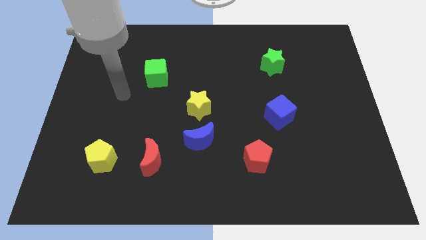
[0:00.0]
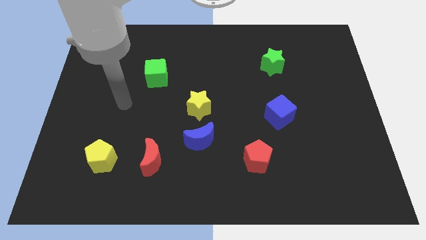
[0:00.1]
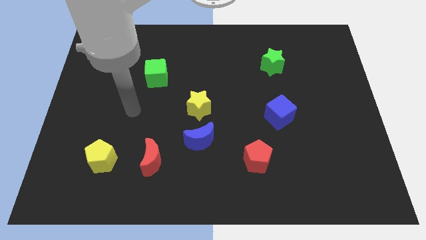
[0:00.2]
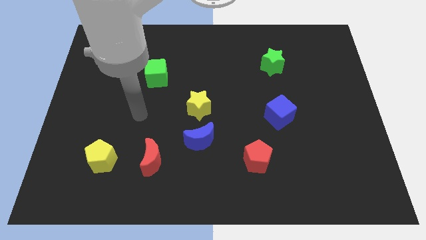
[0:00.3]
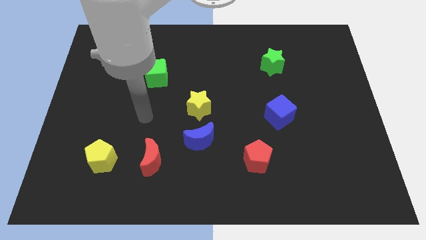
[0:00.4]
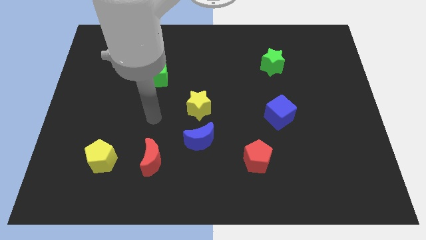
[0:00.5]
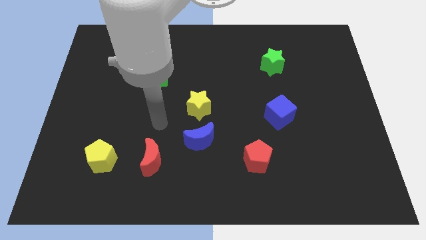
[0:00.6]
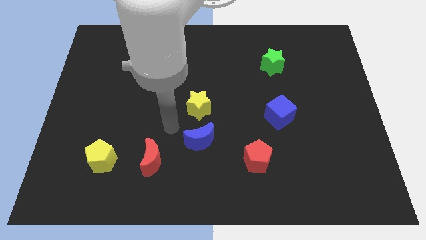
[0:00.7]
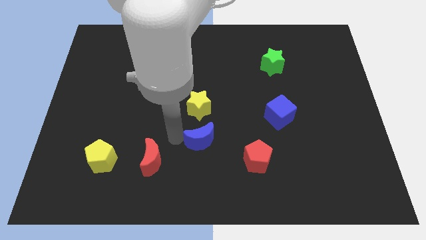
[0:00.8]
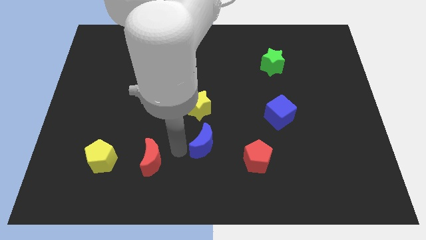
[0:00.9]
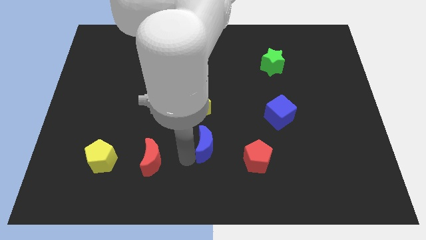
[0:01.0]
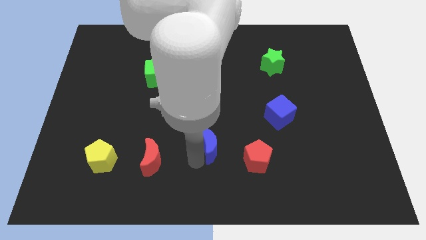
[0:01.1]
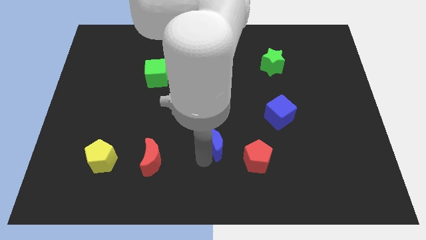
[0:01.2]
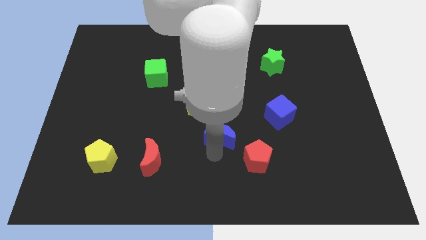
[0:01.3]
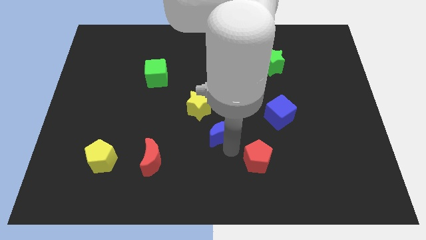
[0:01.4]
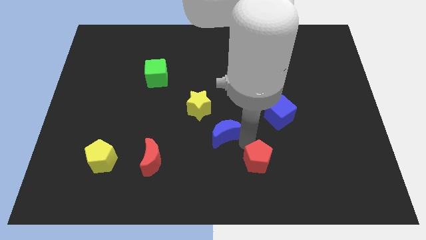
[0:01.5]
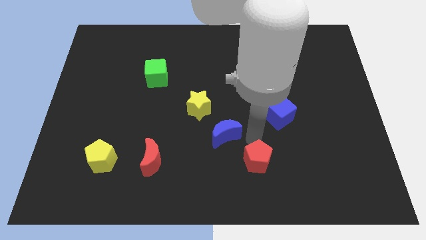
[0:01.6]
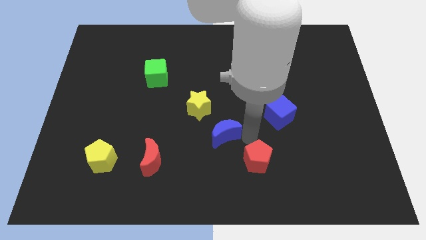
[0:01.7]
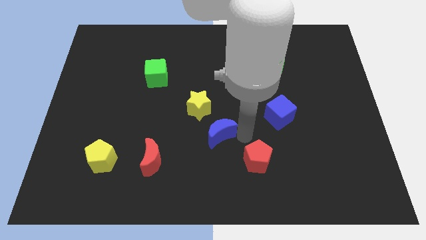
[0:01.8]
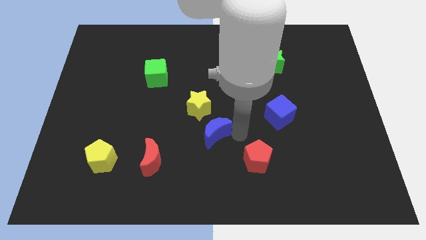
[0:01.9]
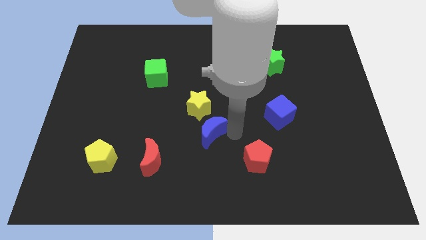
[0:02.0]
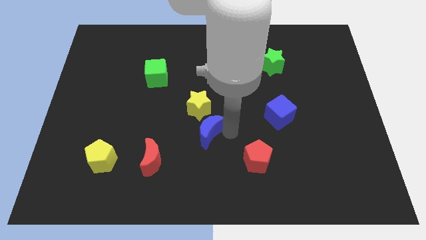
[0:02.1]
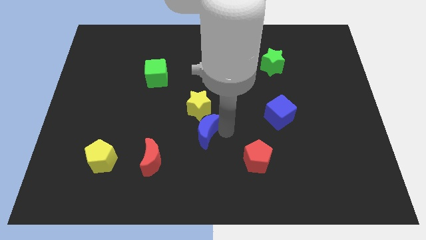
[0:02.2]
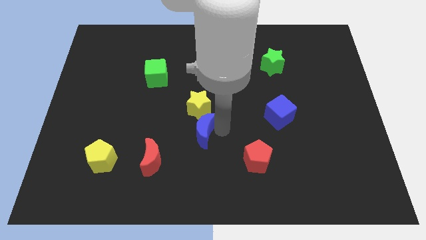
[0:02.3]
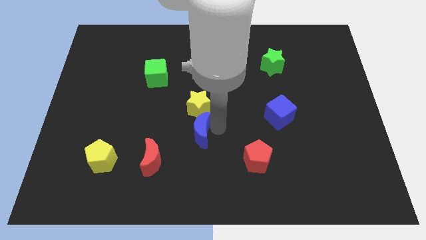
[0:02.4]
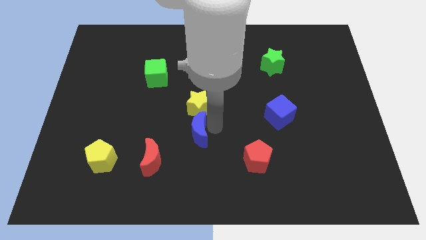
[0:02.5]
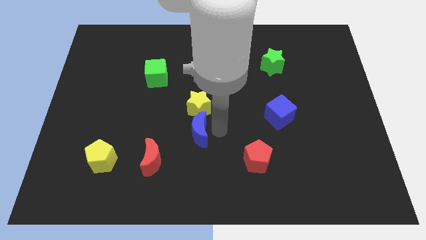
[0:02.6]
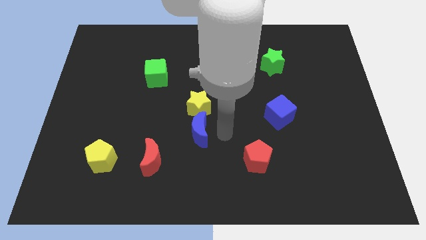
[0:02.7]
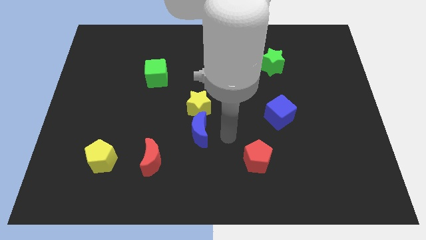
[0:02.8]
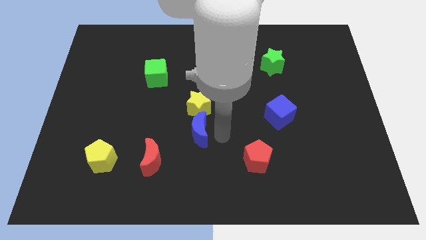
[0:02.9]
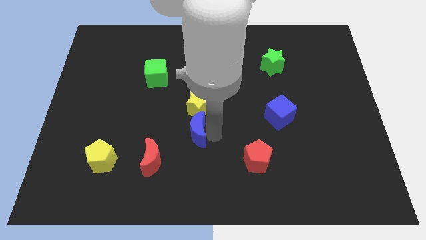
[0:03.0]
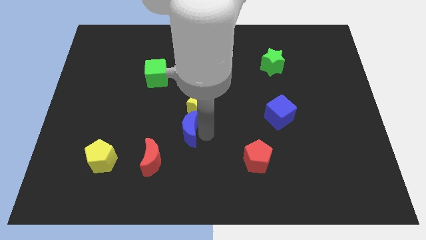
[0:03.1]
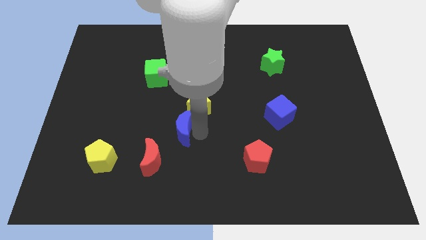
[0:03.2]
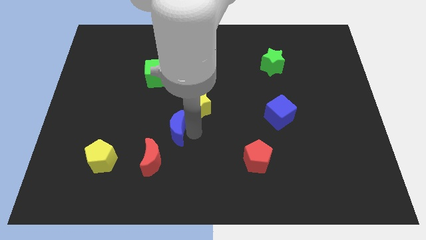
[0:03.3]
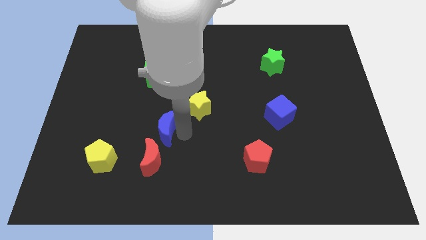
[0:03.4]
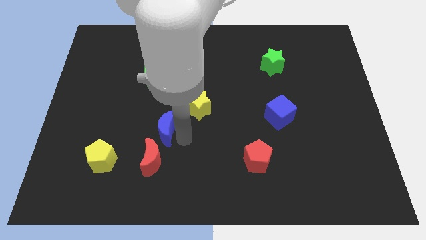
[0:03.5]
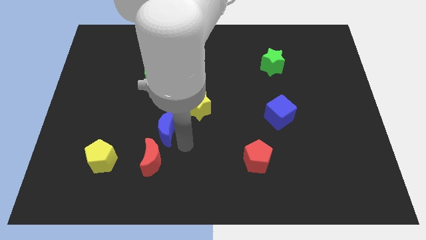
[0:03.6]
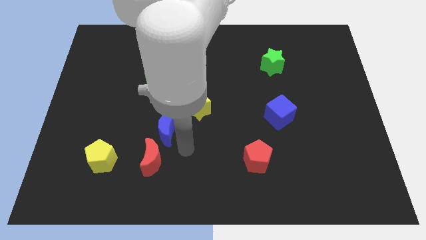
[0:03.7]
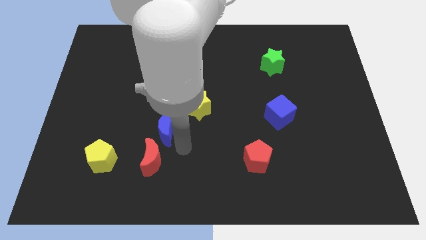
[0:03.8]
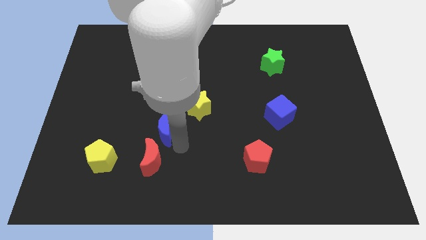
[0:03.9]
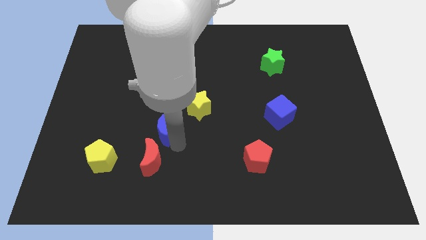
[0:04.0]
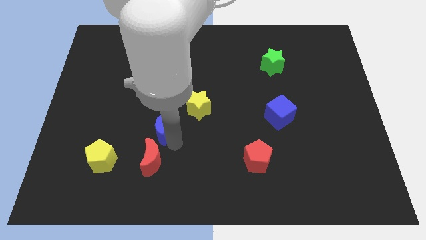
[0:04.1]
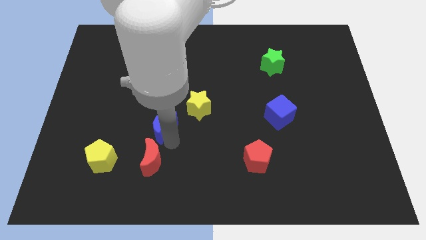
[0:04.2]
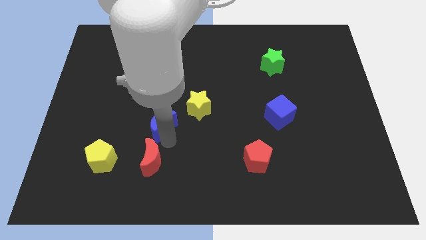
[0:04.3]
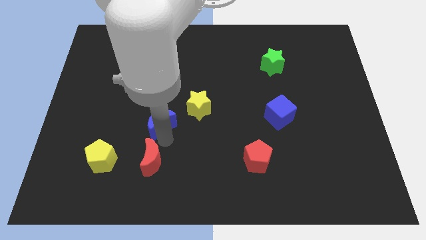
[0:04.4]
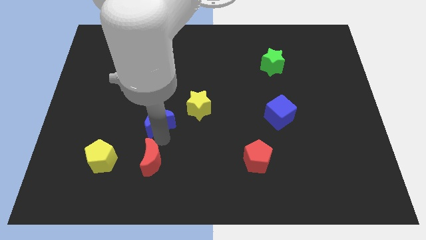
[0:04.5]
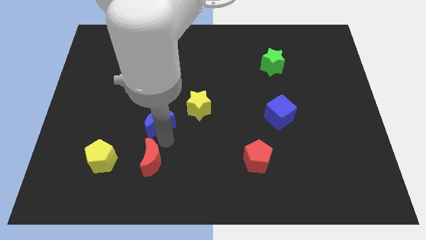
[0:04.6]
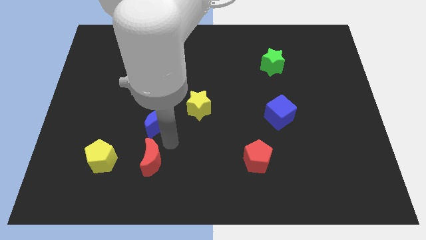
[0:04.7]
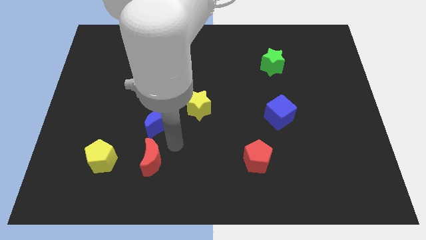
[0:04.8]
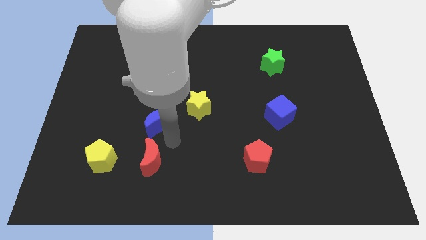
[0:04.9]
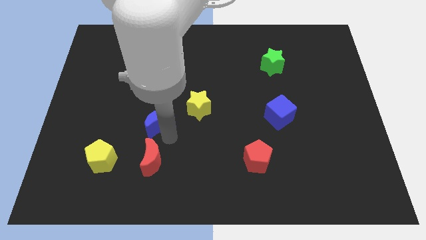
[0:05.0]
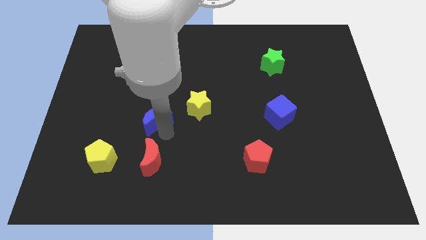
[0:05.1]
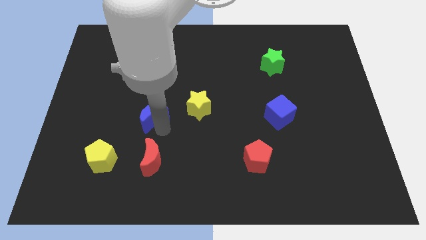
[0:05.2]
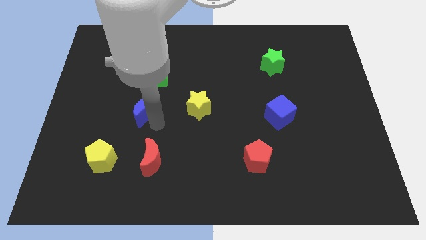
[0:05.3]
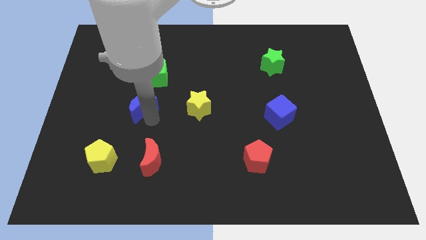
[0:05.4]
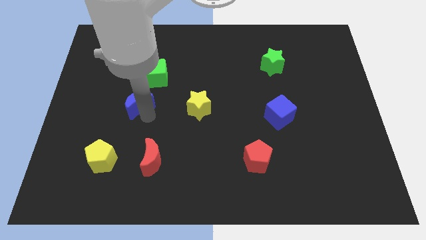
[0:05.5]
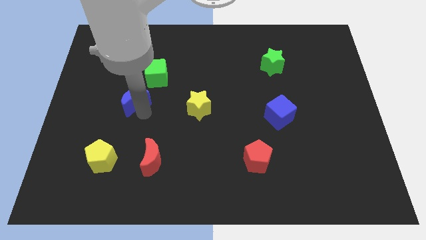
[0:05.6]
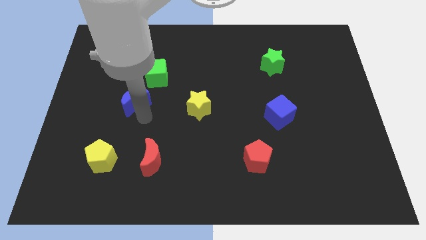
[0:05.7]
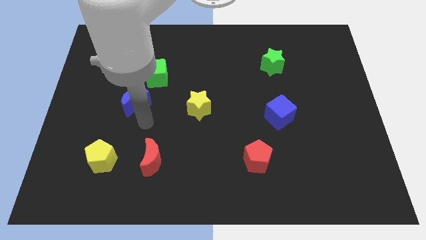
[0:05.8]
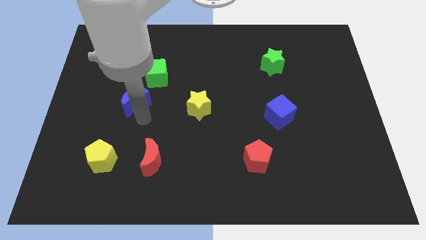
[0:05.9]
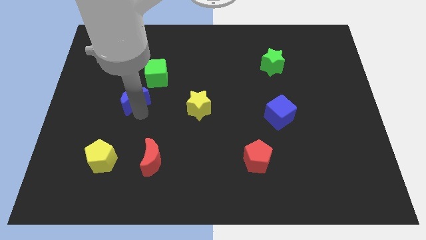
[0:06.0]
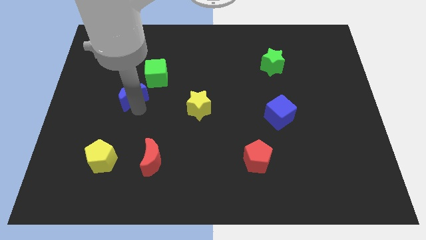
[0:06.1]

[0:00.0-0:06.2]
slide the blue moon upwards and then left

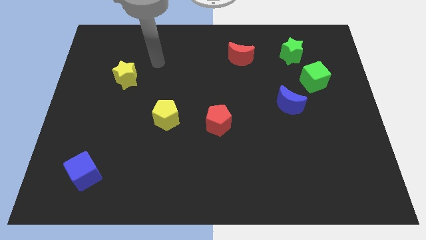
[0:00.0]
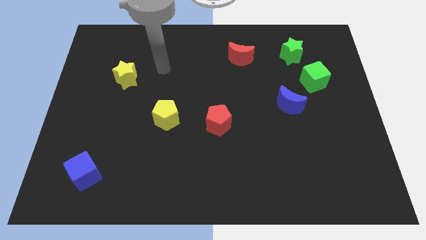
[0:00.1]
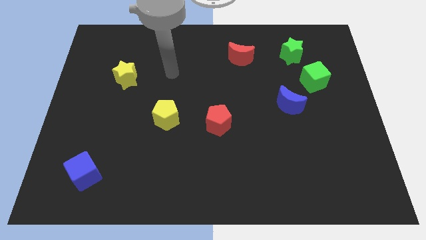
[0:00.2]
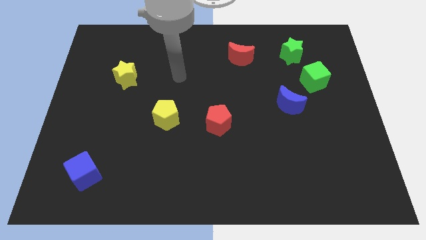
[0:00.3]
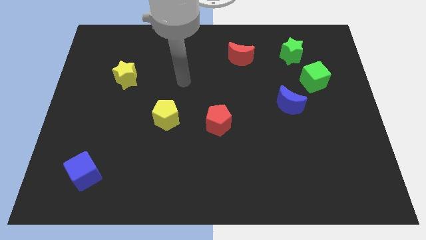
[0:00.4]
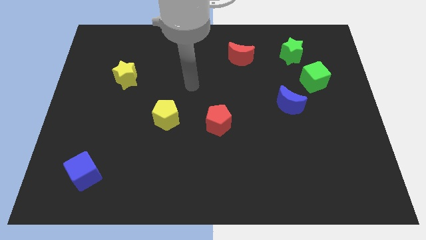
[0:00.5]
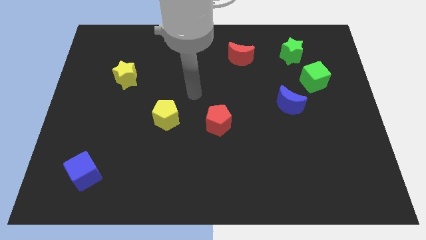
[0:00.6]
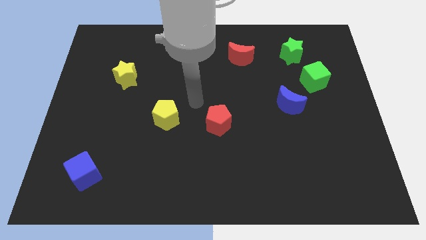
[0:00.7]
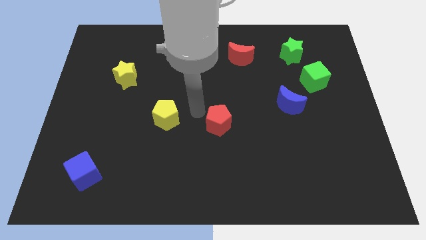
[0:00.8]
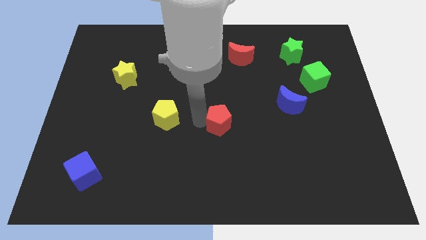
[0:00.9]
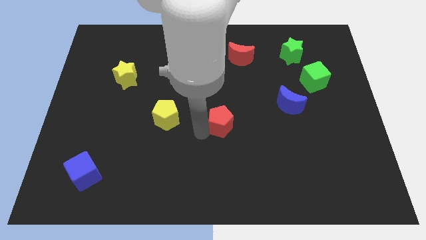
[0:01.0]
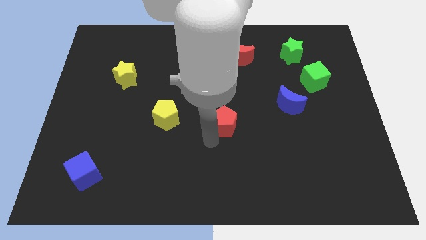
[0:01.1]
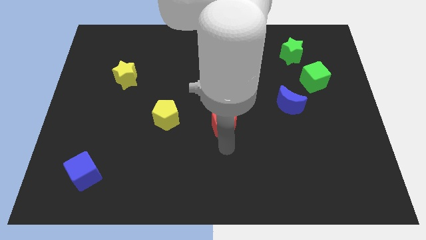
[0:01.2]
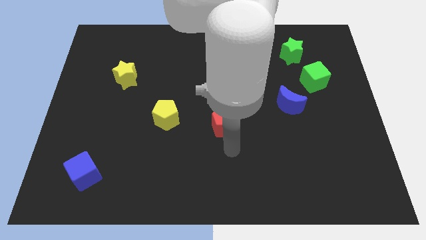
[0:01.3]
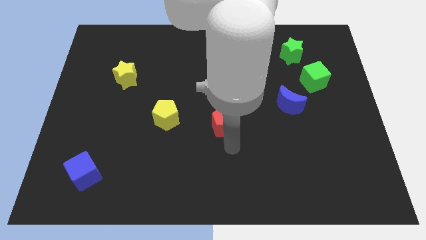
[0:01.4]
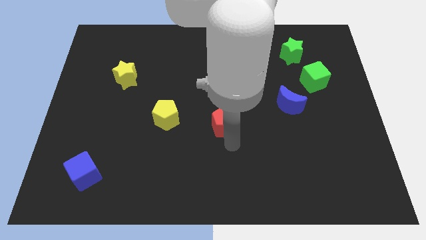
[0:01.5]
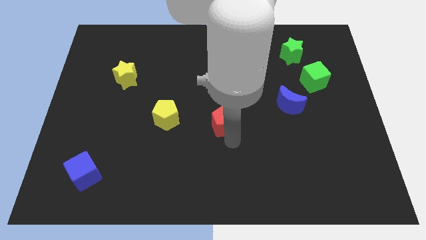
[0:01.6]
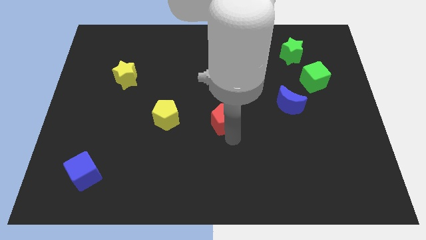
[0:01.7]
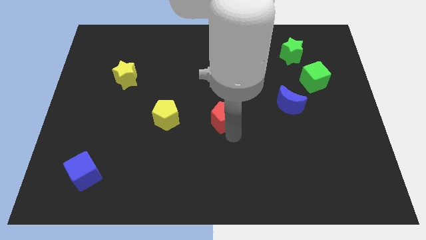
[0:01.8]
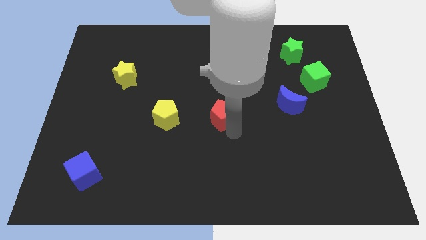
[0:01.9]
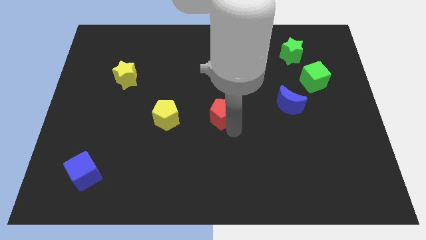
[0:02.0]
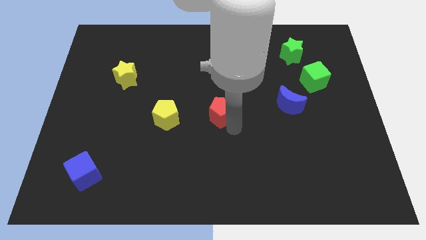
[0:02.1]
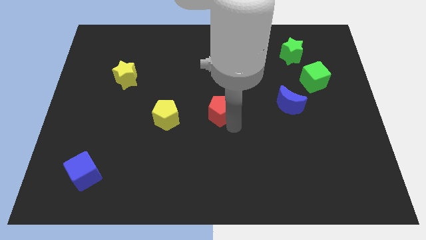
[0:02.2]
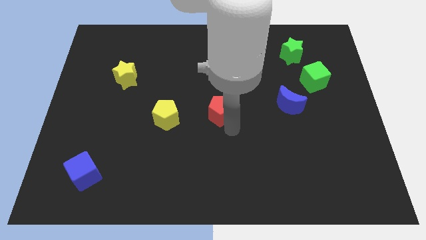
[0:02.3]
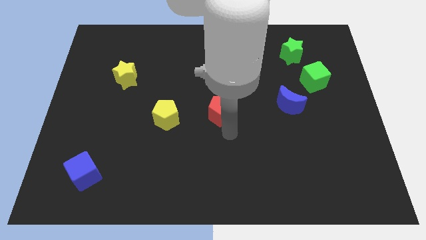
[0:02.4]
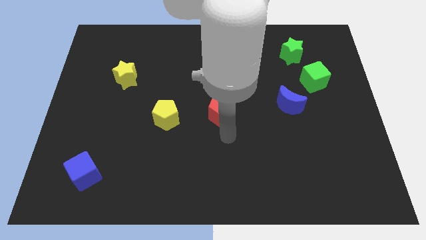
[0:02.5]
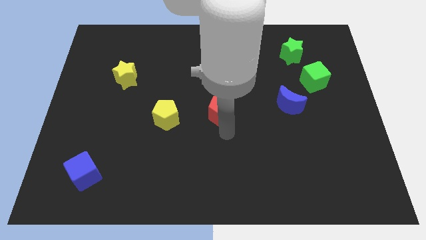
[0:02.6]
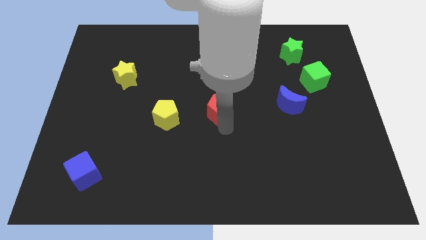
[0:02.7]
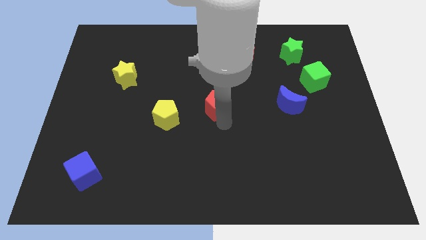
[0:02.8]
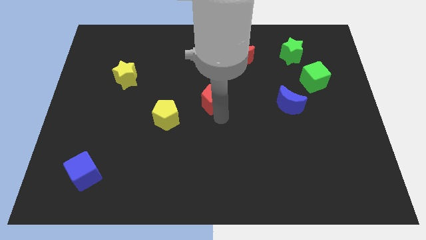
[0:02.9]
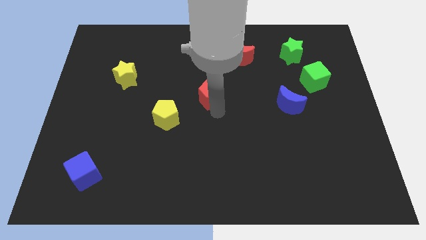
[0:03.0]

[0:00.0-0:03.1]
slide the red pentagon a little upwards
